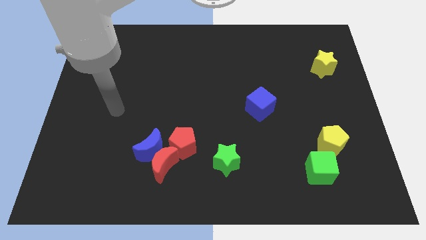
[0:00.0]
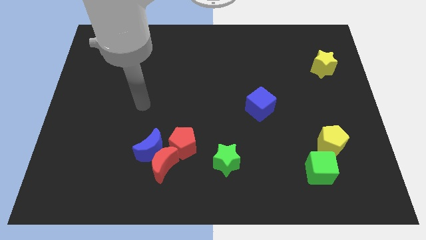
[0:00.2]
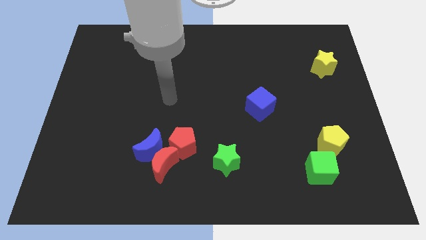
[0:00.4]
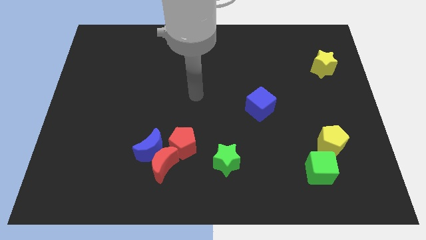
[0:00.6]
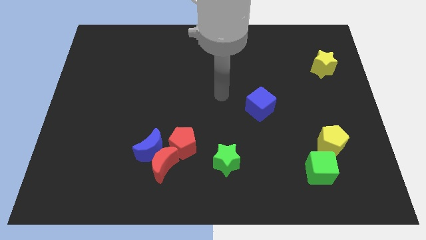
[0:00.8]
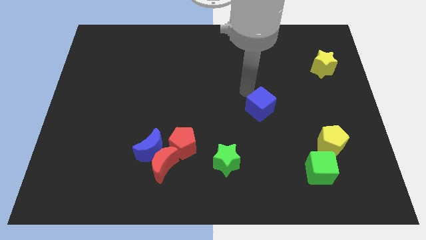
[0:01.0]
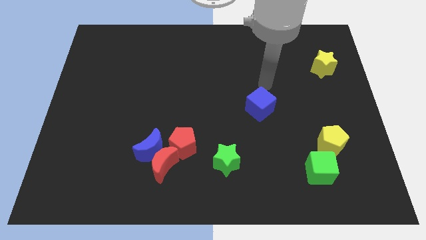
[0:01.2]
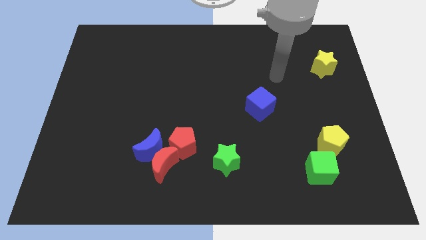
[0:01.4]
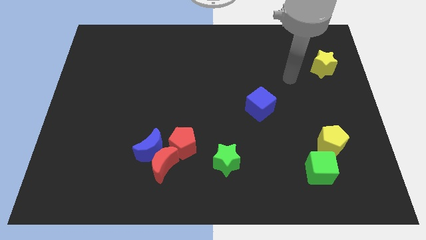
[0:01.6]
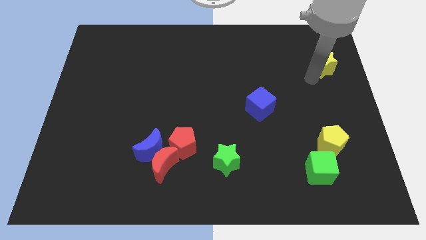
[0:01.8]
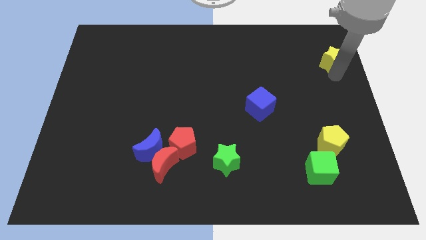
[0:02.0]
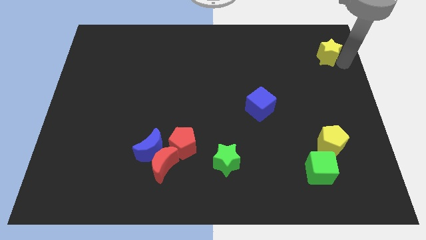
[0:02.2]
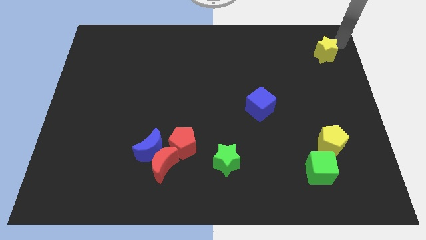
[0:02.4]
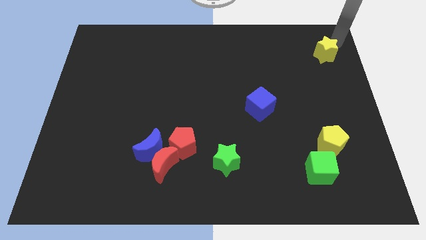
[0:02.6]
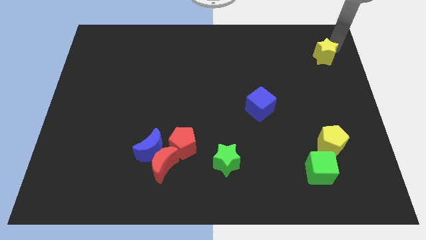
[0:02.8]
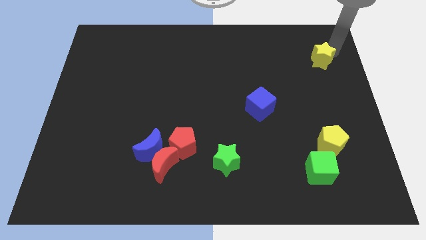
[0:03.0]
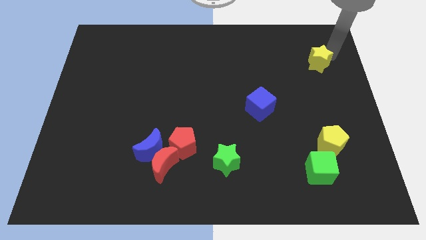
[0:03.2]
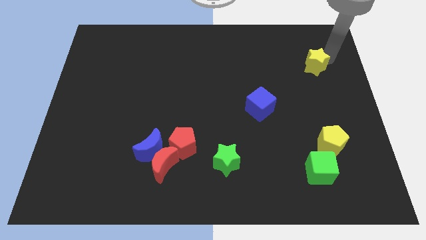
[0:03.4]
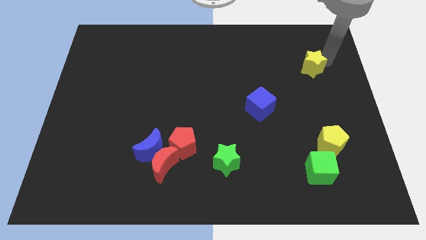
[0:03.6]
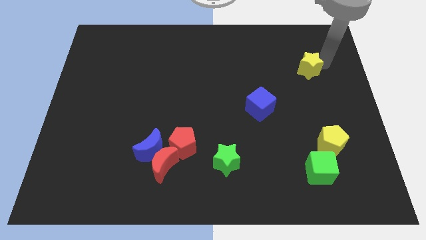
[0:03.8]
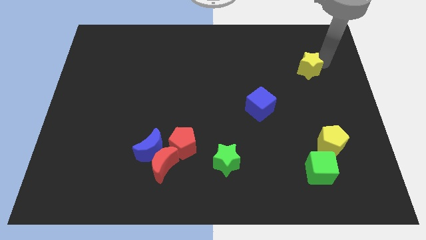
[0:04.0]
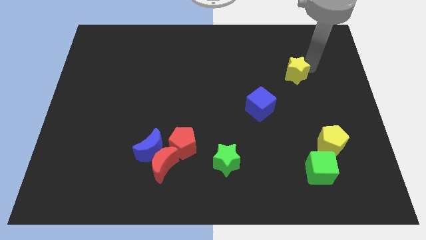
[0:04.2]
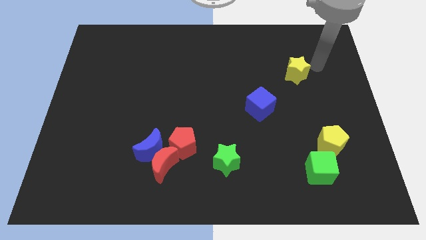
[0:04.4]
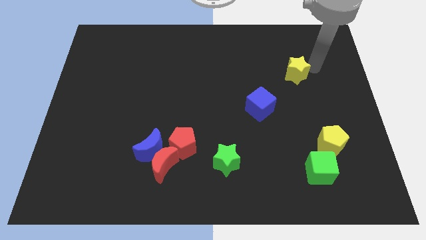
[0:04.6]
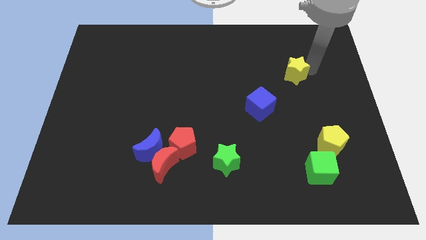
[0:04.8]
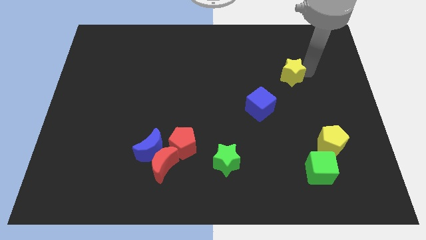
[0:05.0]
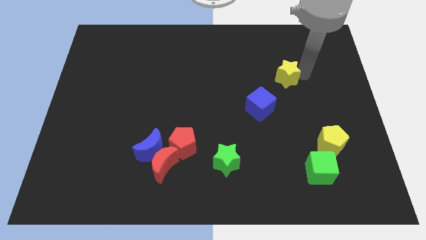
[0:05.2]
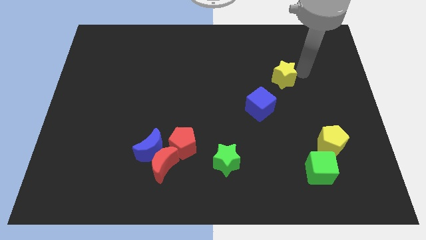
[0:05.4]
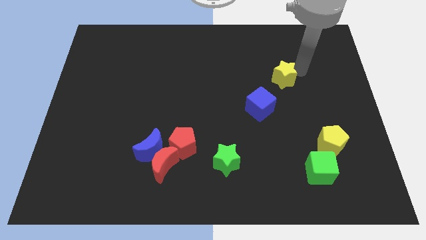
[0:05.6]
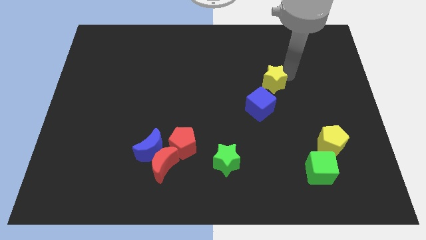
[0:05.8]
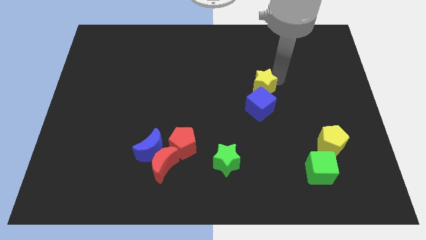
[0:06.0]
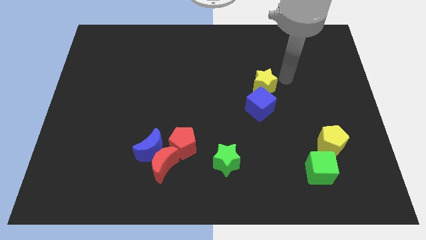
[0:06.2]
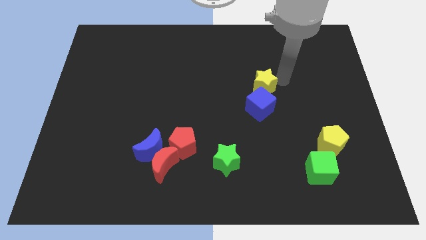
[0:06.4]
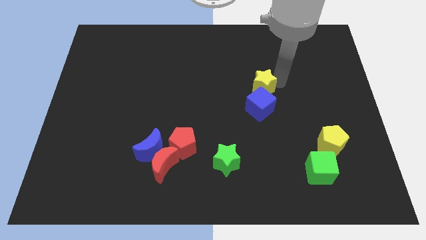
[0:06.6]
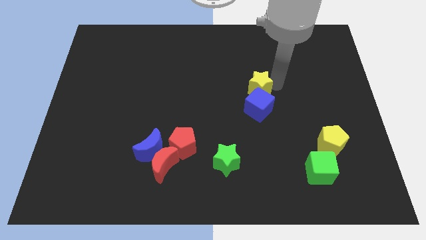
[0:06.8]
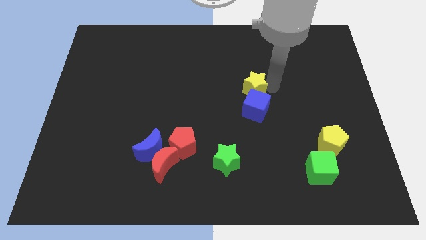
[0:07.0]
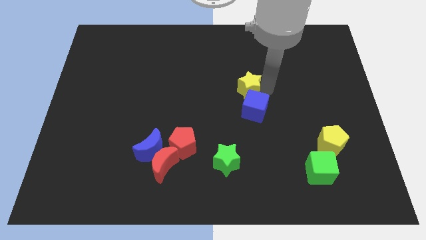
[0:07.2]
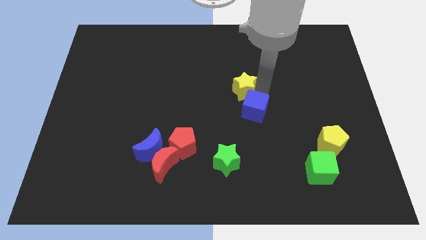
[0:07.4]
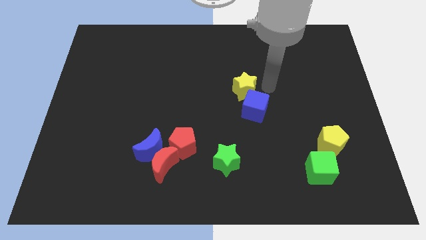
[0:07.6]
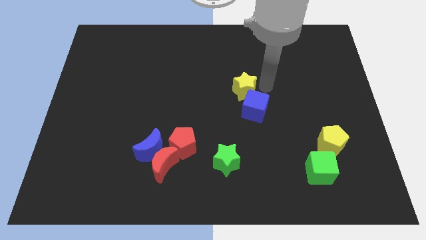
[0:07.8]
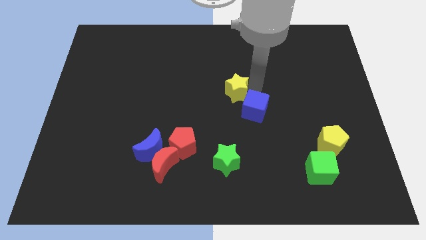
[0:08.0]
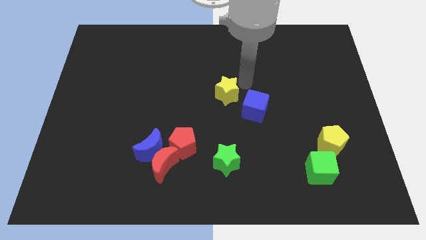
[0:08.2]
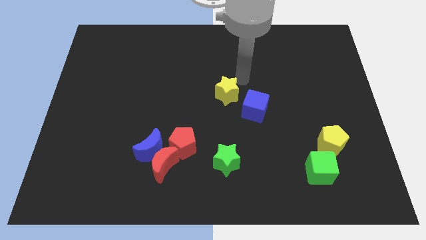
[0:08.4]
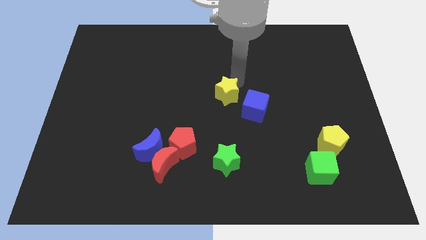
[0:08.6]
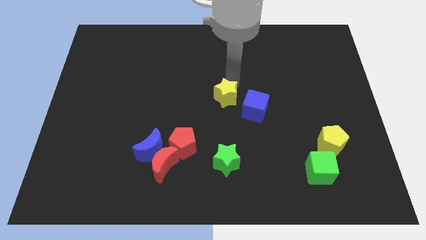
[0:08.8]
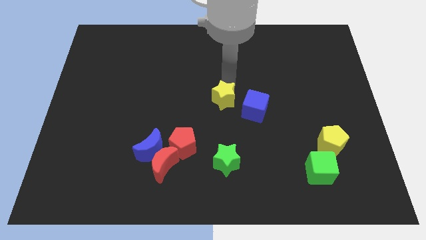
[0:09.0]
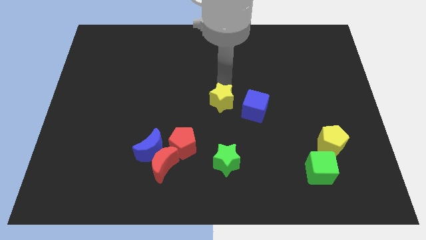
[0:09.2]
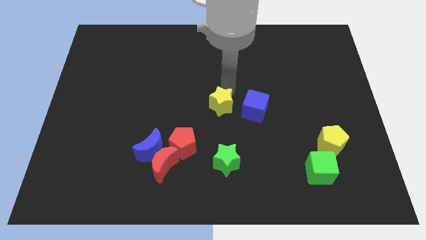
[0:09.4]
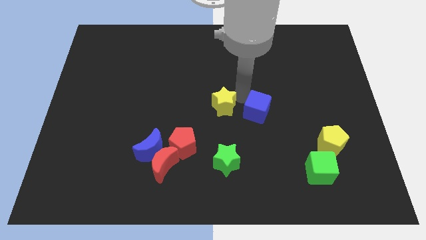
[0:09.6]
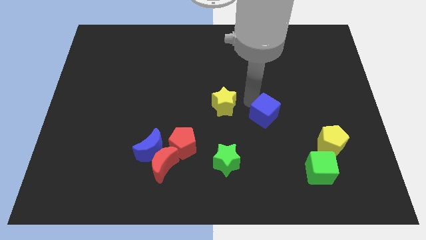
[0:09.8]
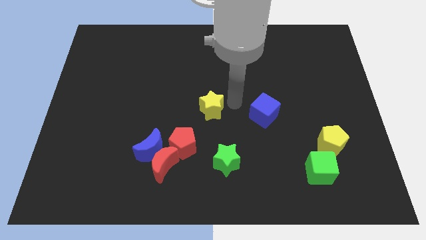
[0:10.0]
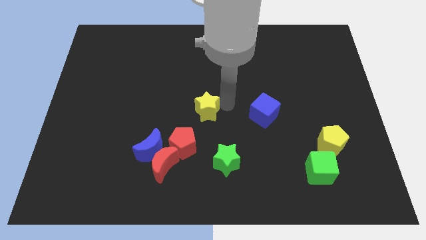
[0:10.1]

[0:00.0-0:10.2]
push the yellow star above the red pentagon

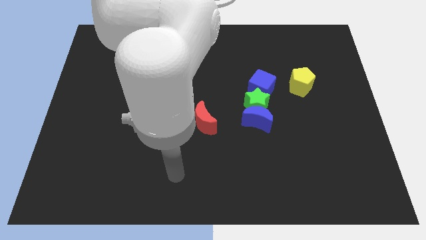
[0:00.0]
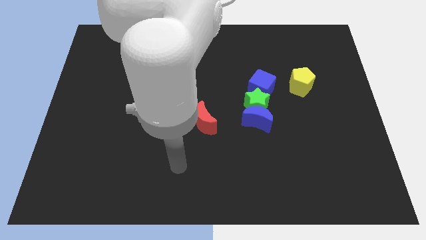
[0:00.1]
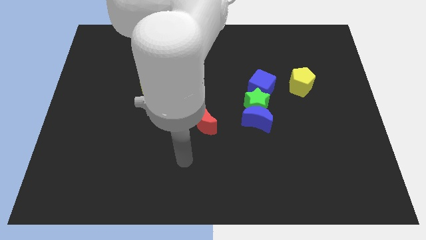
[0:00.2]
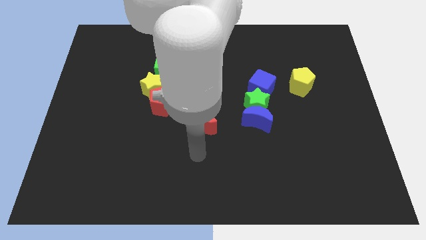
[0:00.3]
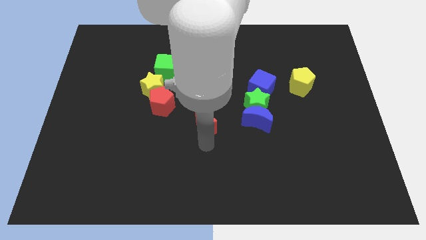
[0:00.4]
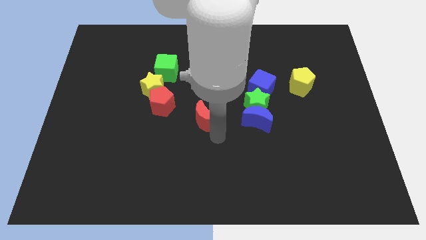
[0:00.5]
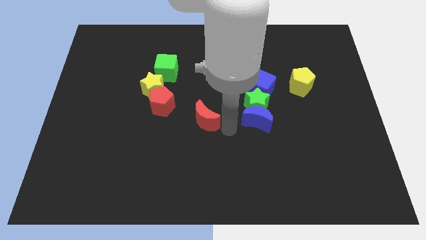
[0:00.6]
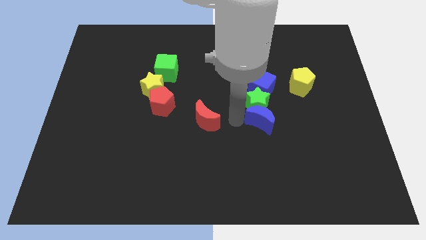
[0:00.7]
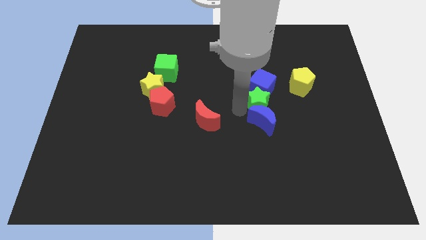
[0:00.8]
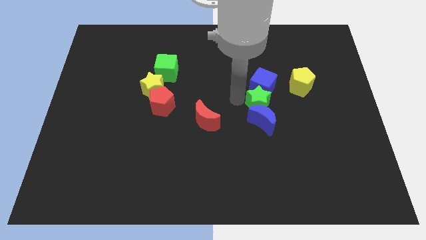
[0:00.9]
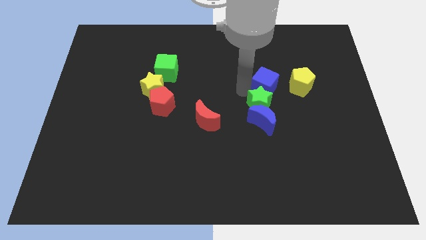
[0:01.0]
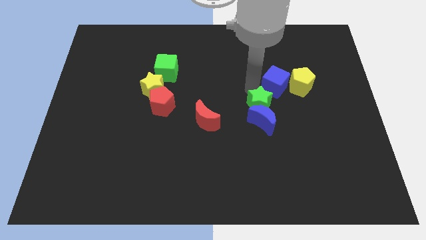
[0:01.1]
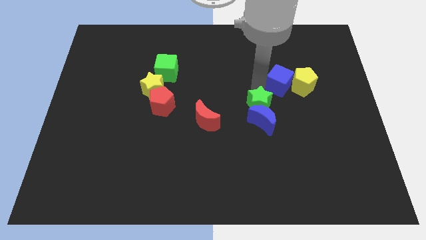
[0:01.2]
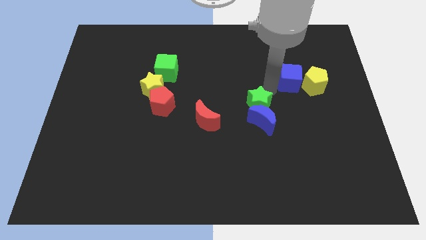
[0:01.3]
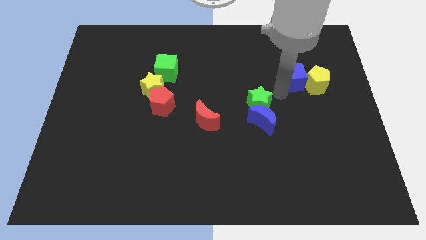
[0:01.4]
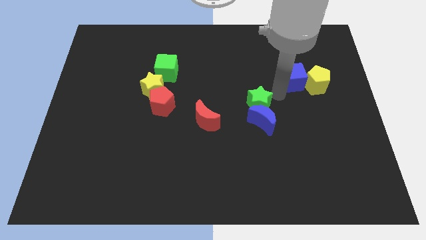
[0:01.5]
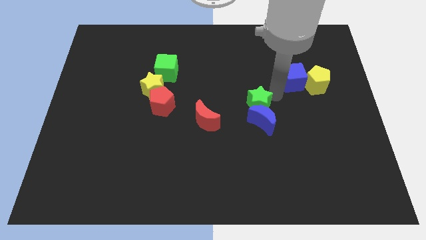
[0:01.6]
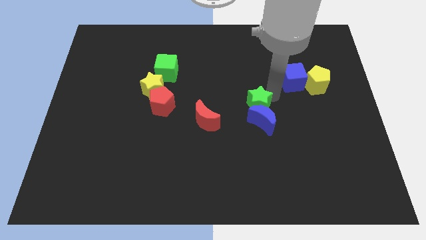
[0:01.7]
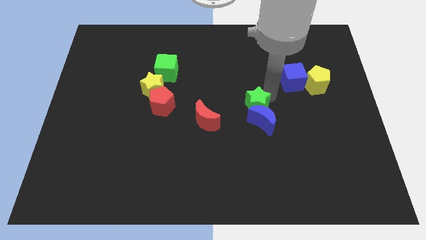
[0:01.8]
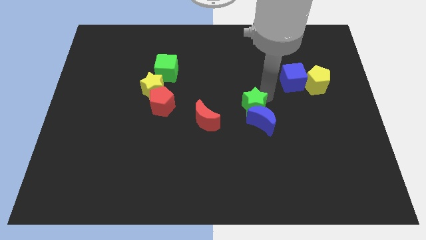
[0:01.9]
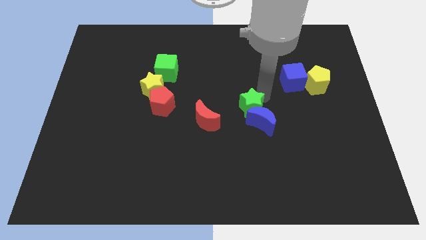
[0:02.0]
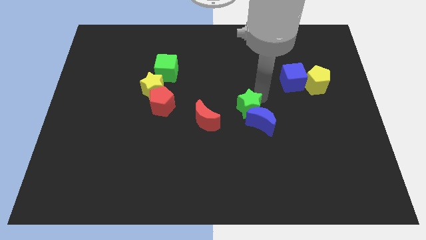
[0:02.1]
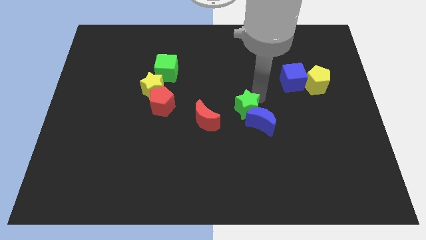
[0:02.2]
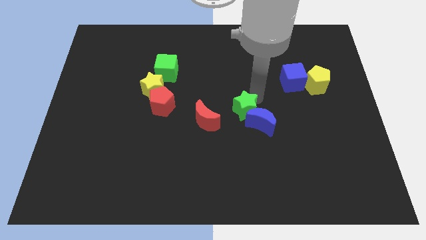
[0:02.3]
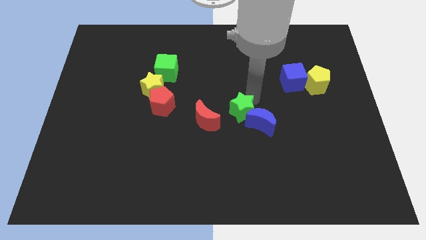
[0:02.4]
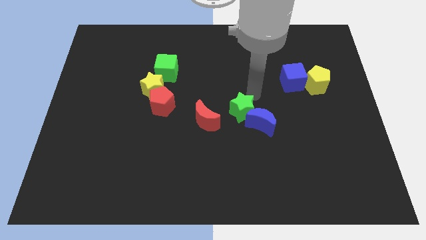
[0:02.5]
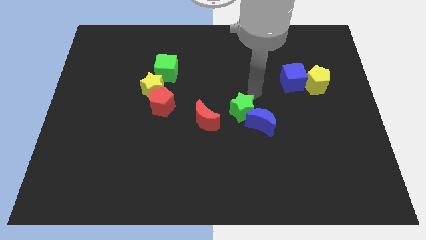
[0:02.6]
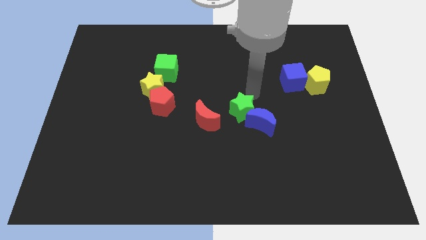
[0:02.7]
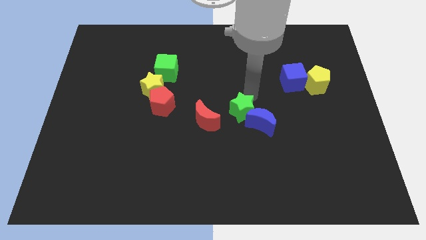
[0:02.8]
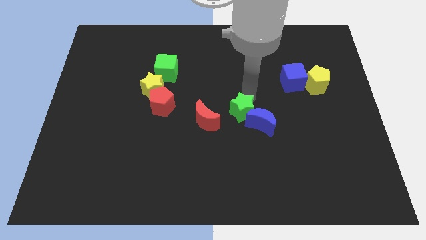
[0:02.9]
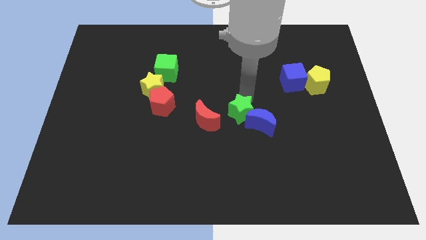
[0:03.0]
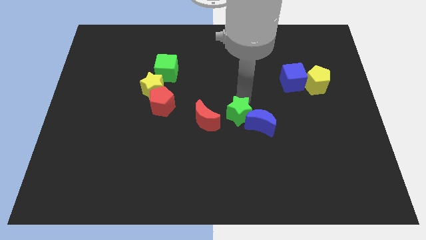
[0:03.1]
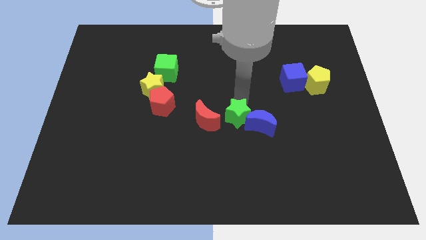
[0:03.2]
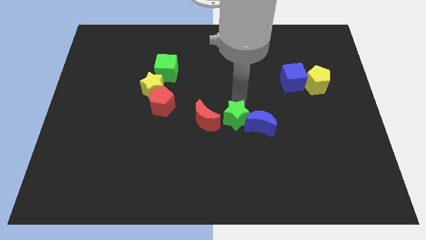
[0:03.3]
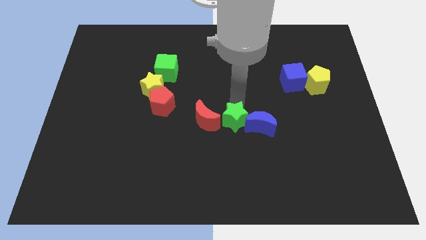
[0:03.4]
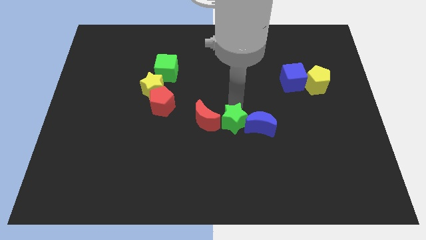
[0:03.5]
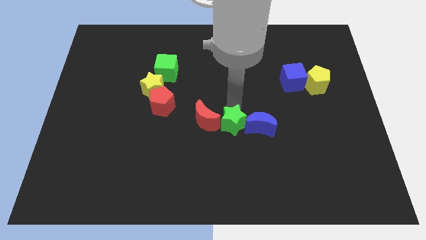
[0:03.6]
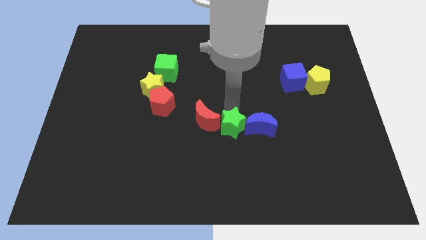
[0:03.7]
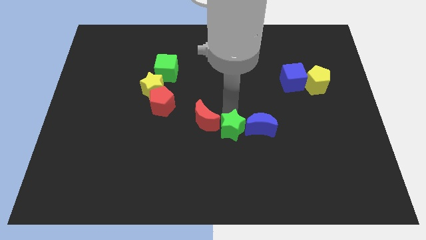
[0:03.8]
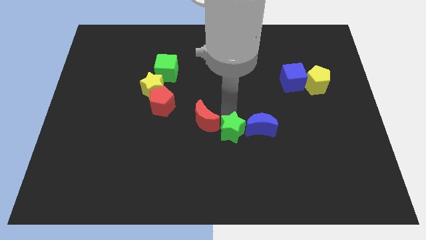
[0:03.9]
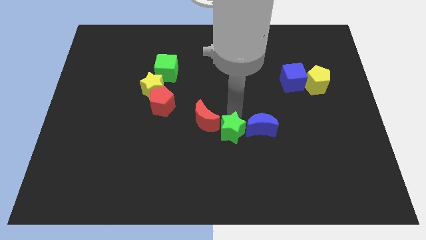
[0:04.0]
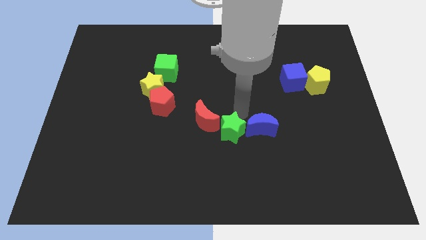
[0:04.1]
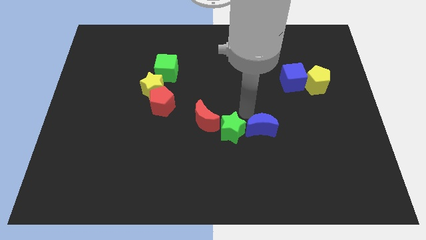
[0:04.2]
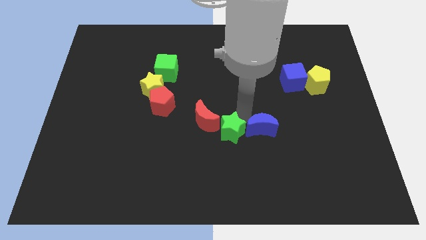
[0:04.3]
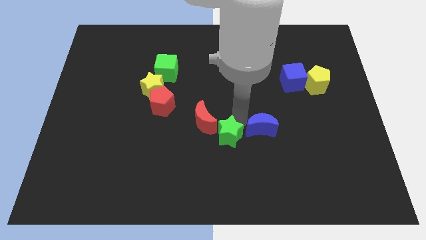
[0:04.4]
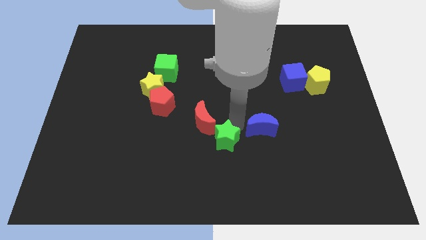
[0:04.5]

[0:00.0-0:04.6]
move the green star to the bottom of the red moon
